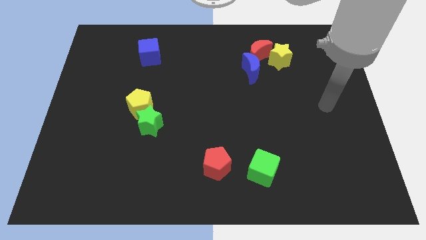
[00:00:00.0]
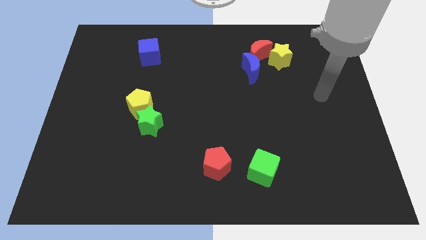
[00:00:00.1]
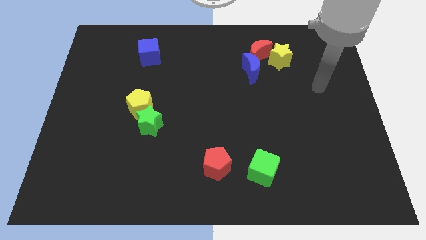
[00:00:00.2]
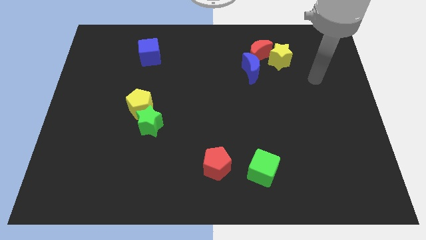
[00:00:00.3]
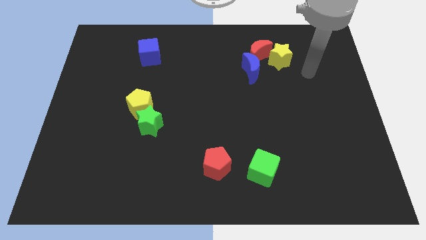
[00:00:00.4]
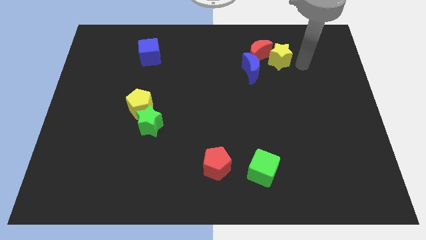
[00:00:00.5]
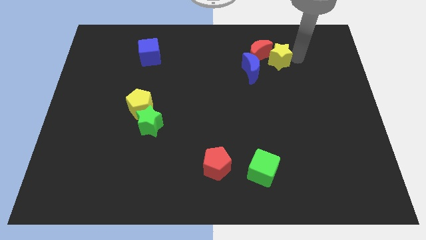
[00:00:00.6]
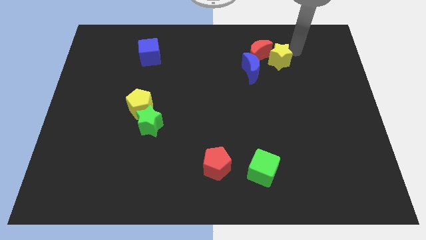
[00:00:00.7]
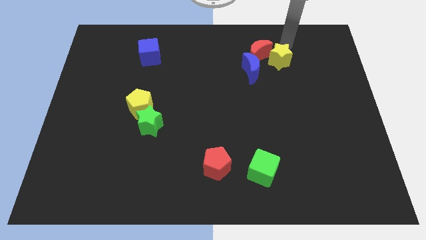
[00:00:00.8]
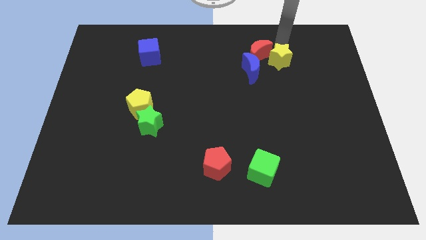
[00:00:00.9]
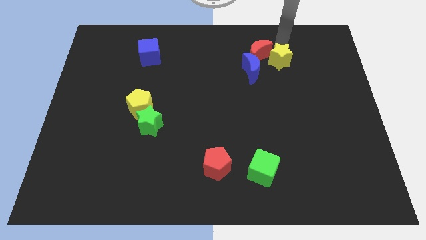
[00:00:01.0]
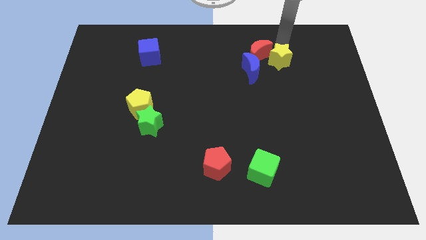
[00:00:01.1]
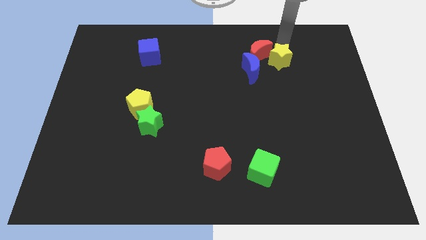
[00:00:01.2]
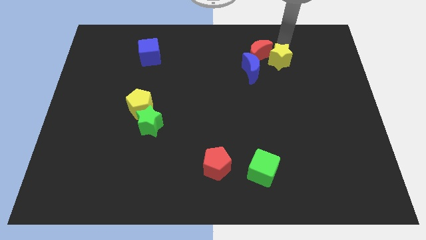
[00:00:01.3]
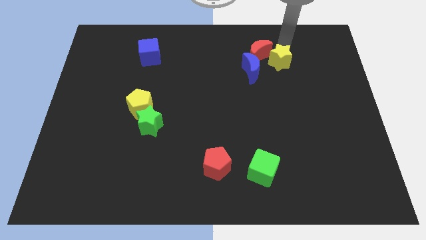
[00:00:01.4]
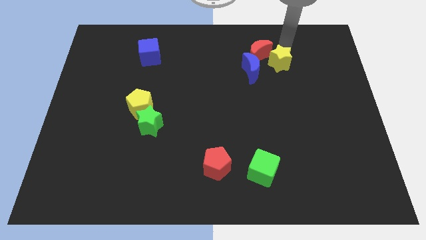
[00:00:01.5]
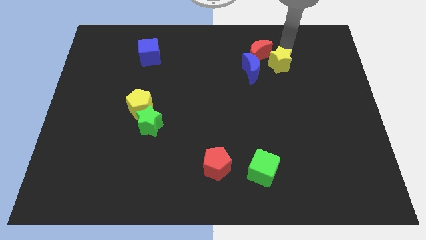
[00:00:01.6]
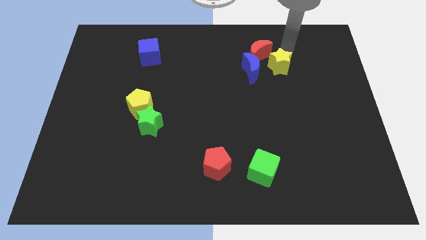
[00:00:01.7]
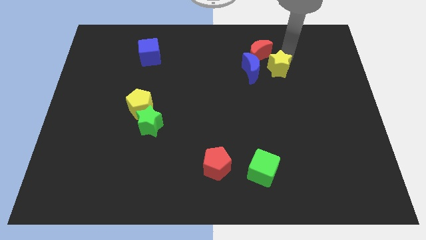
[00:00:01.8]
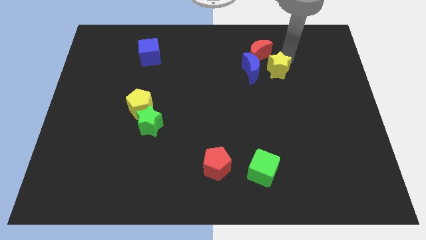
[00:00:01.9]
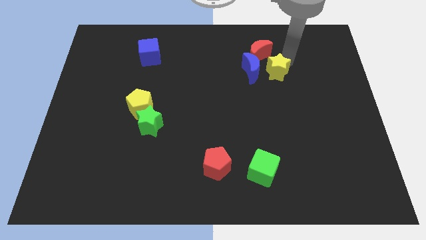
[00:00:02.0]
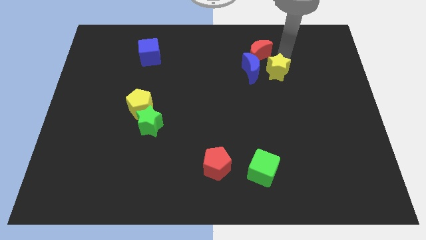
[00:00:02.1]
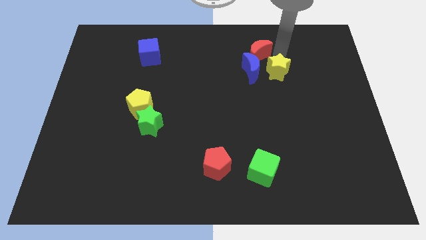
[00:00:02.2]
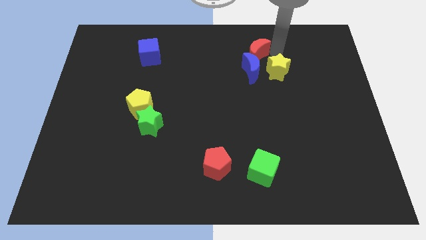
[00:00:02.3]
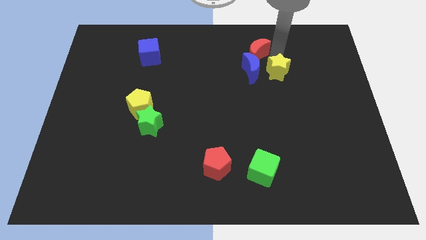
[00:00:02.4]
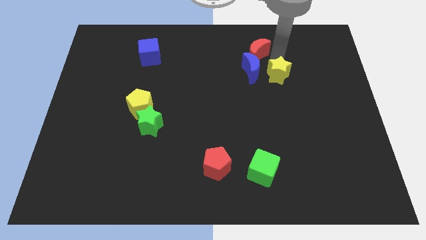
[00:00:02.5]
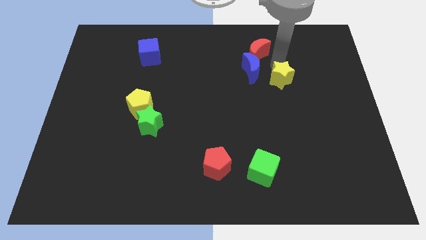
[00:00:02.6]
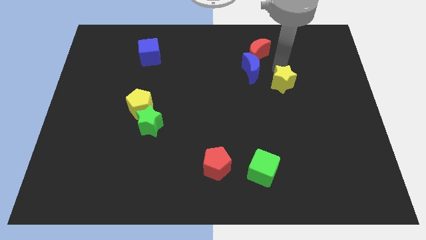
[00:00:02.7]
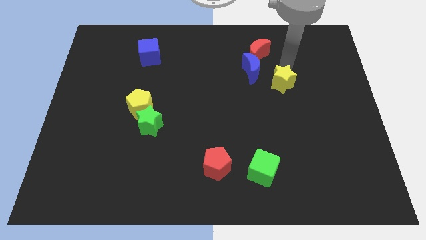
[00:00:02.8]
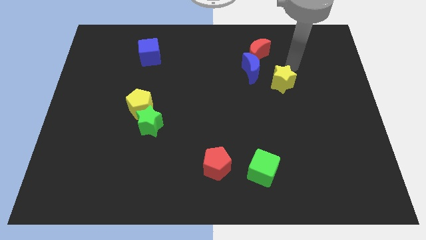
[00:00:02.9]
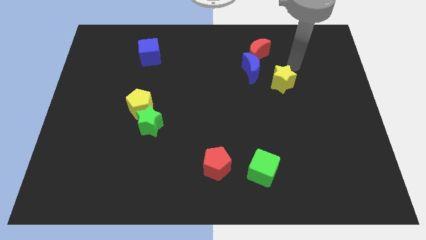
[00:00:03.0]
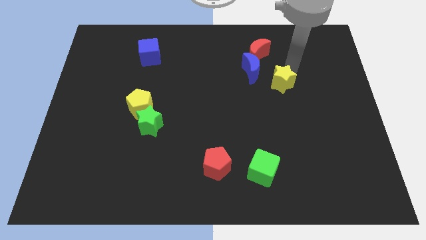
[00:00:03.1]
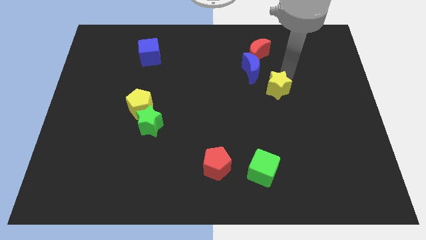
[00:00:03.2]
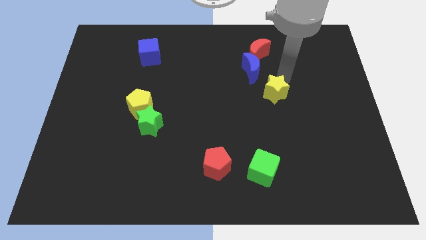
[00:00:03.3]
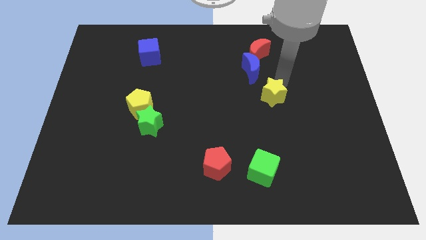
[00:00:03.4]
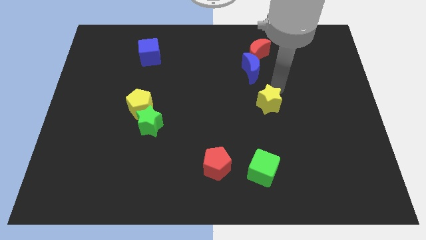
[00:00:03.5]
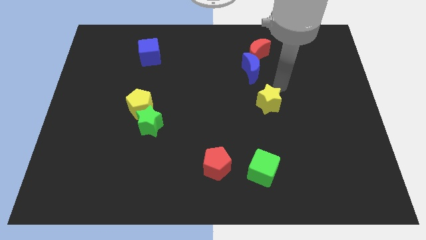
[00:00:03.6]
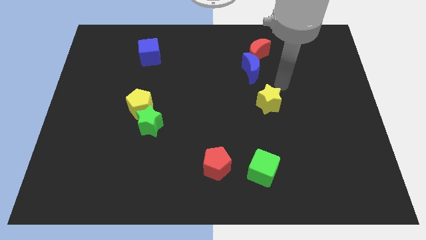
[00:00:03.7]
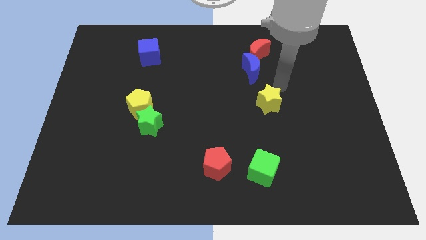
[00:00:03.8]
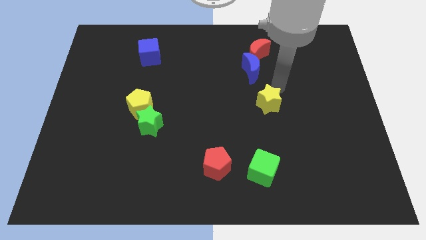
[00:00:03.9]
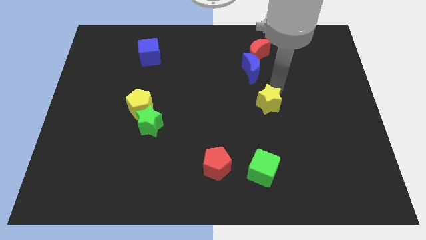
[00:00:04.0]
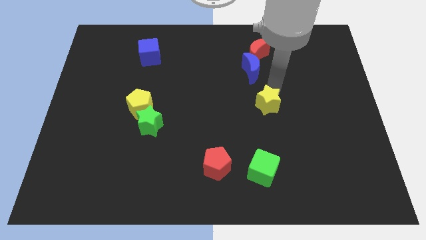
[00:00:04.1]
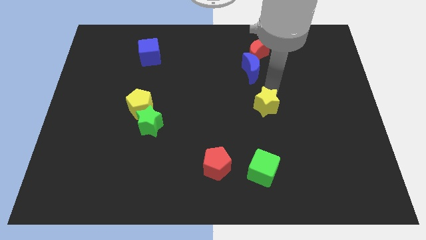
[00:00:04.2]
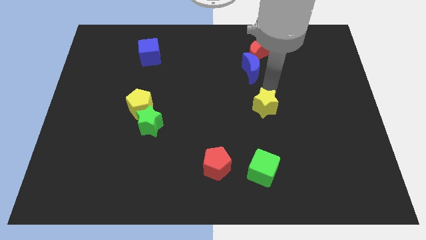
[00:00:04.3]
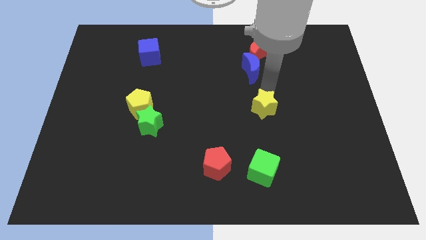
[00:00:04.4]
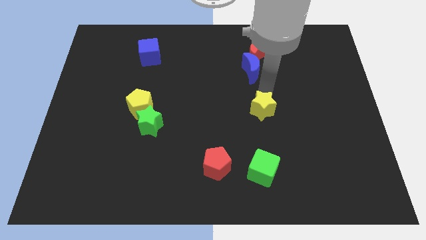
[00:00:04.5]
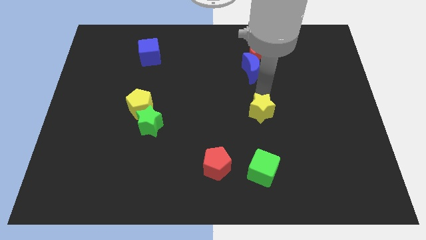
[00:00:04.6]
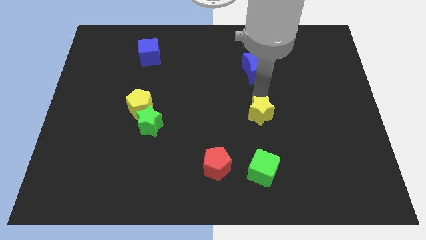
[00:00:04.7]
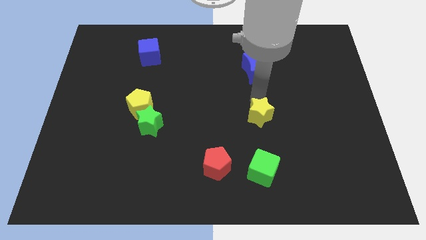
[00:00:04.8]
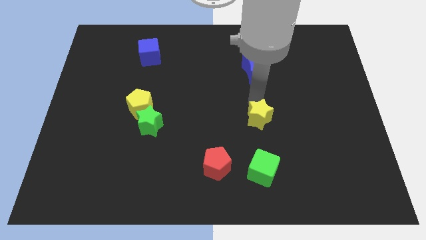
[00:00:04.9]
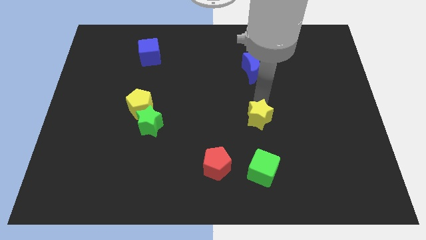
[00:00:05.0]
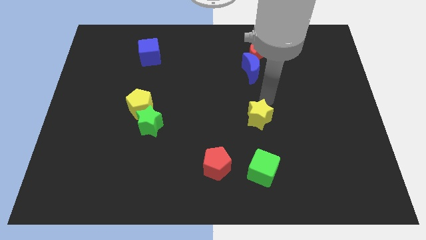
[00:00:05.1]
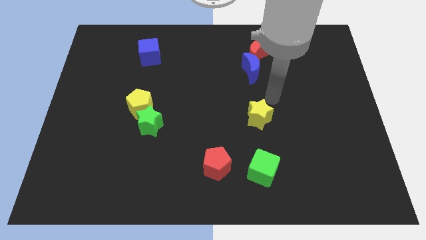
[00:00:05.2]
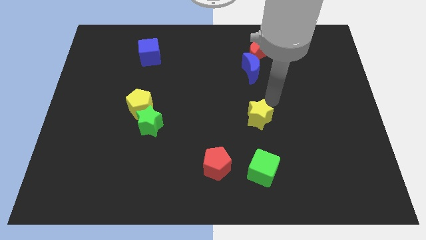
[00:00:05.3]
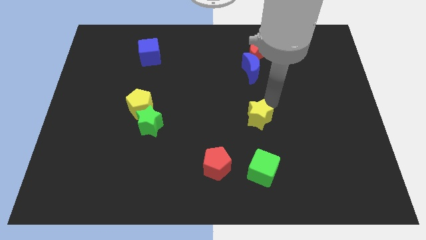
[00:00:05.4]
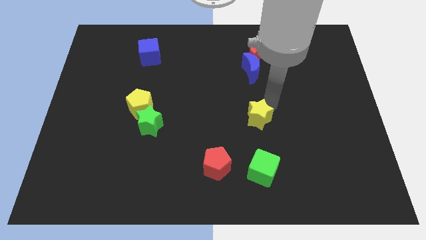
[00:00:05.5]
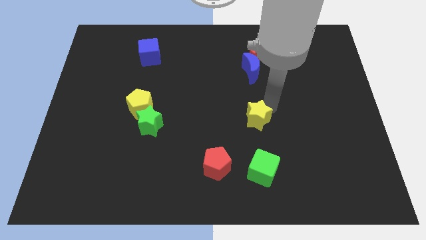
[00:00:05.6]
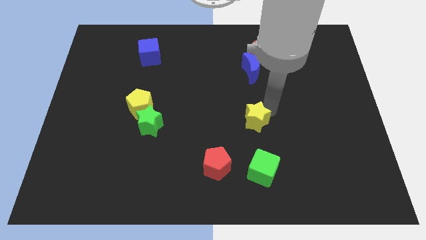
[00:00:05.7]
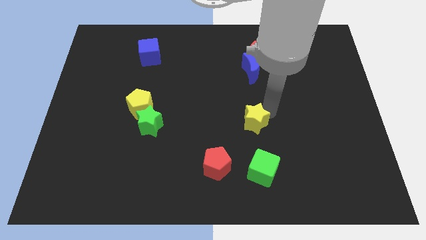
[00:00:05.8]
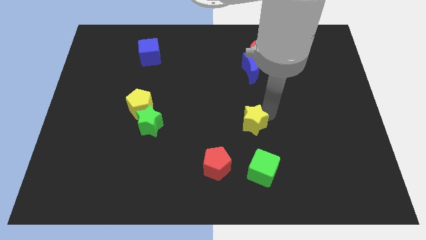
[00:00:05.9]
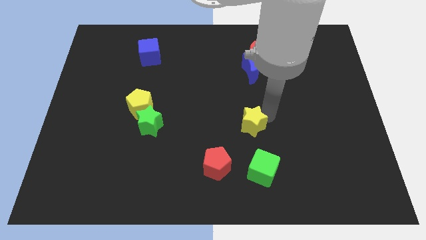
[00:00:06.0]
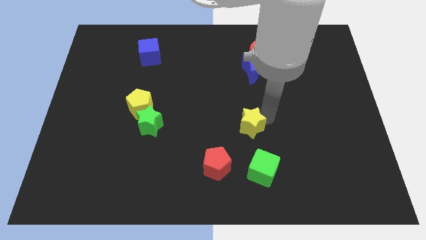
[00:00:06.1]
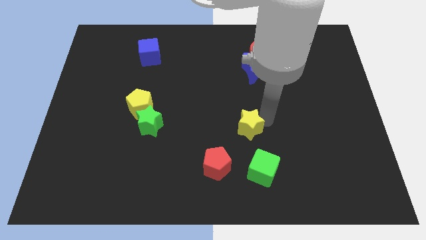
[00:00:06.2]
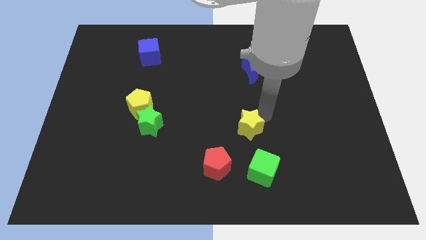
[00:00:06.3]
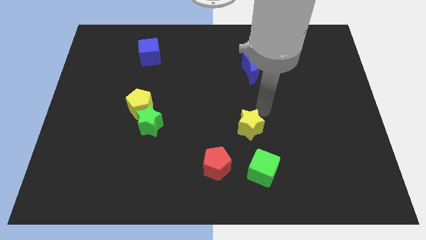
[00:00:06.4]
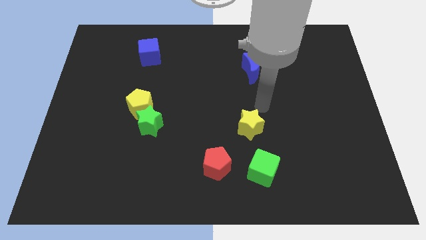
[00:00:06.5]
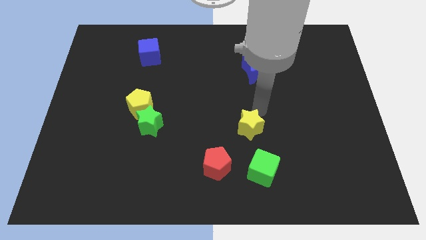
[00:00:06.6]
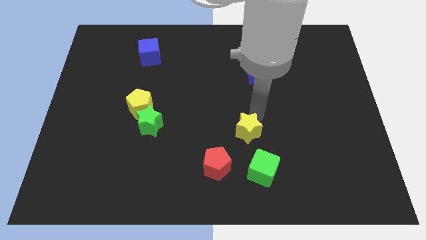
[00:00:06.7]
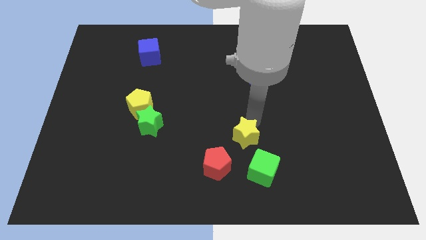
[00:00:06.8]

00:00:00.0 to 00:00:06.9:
push the yellow star to the top left side of the green cube
